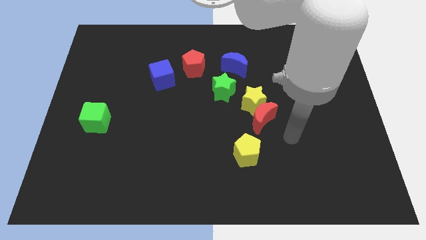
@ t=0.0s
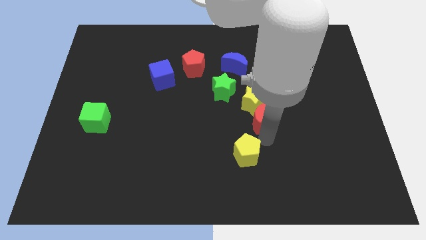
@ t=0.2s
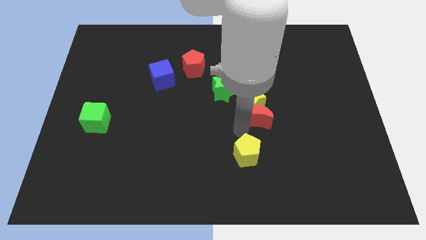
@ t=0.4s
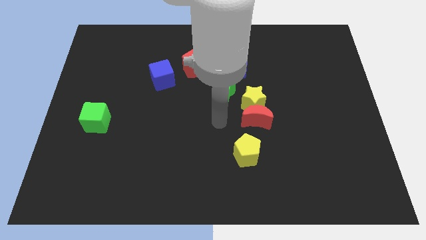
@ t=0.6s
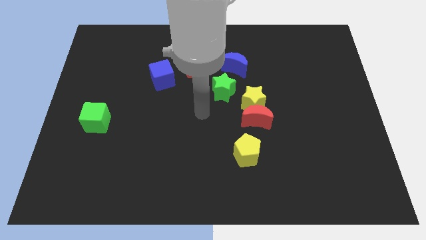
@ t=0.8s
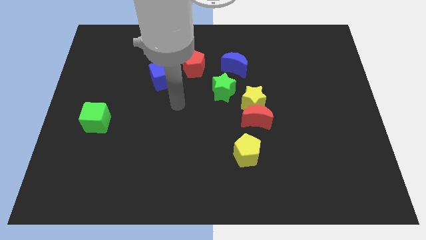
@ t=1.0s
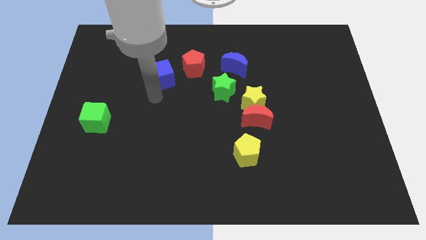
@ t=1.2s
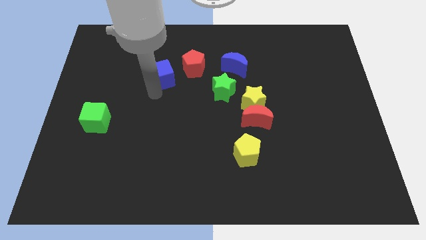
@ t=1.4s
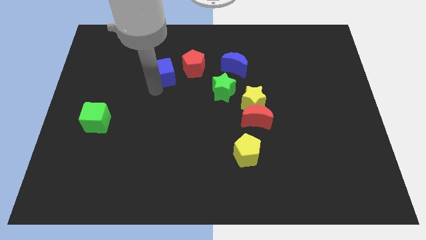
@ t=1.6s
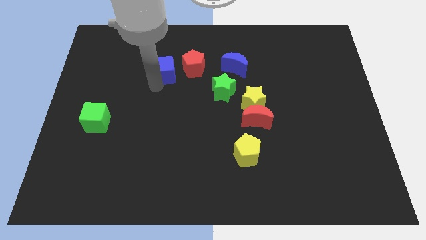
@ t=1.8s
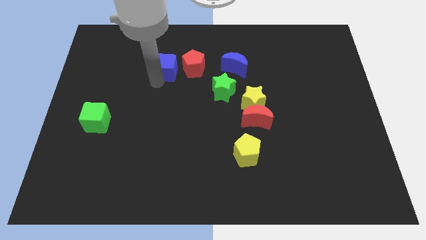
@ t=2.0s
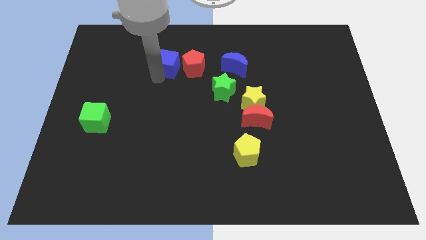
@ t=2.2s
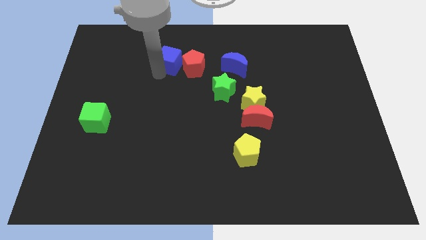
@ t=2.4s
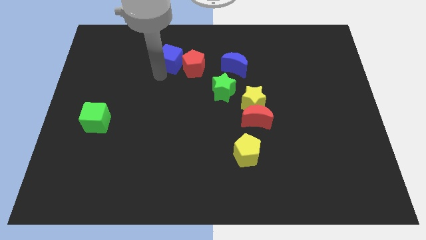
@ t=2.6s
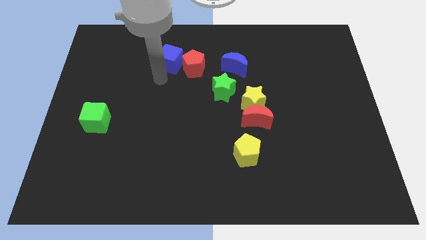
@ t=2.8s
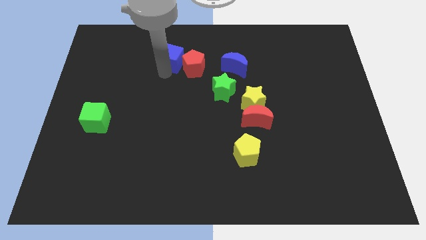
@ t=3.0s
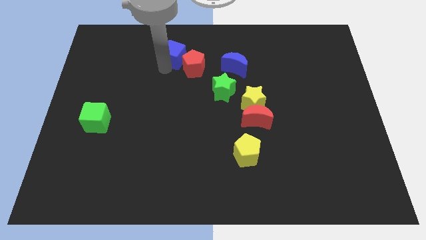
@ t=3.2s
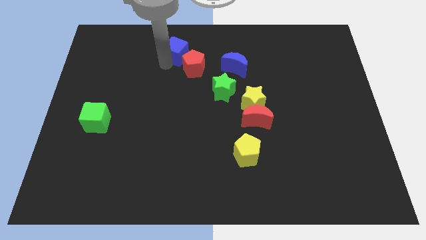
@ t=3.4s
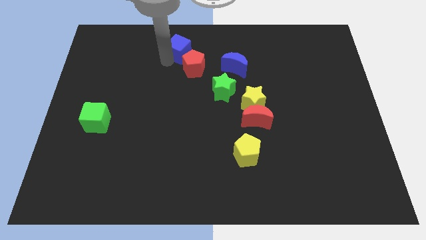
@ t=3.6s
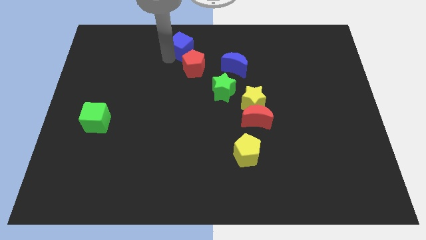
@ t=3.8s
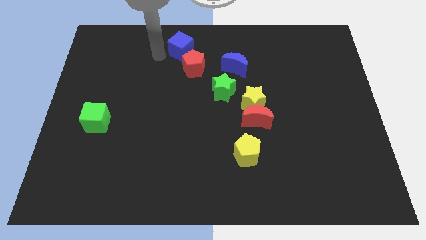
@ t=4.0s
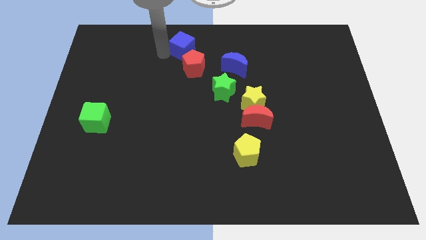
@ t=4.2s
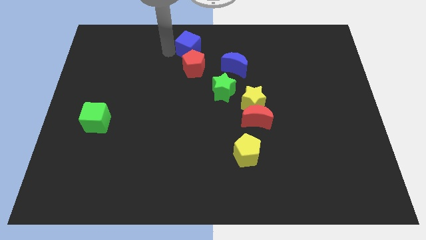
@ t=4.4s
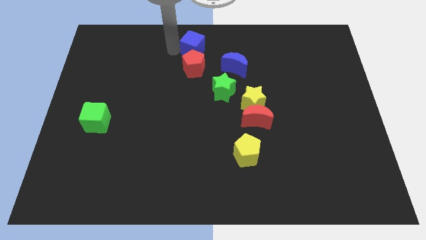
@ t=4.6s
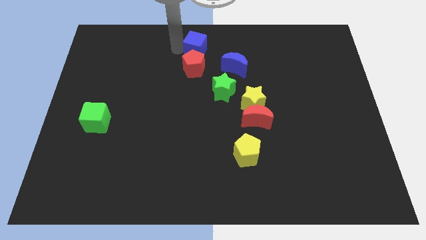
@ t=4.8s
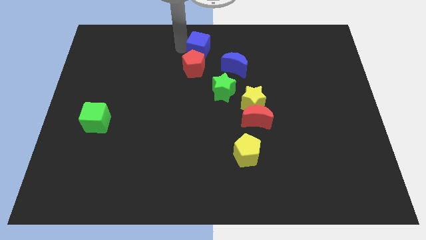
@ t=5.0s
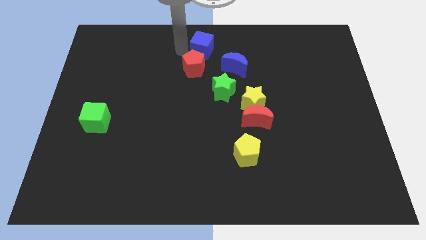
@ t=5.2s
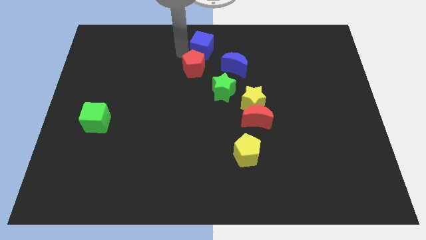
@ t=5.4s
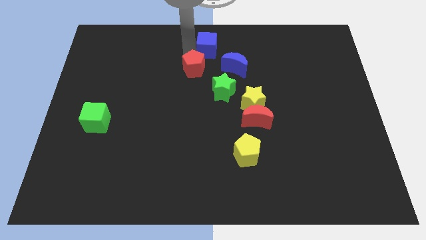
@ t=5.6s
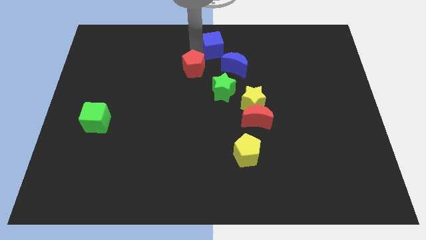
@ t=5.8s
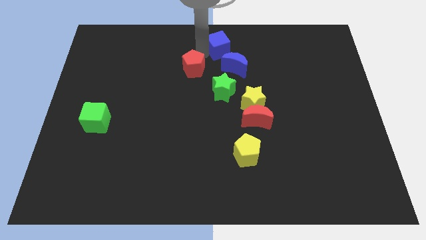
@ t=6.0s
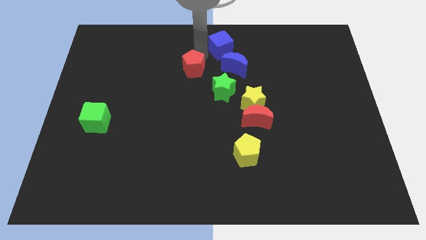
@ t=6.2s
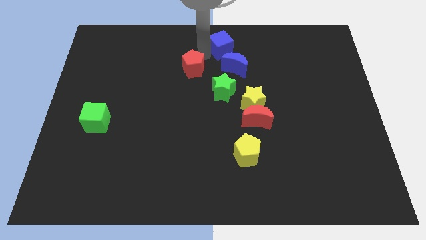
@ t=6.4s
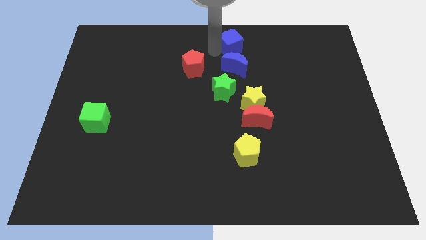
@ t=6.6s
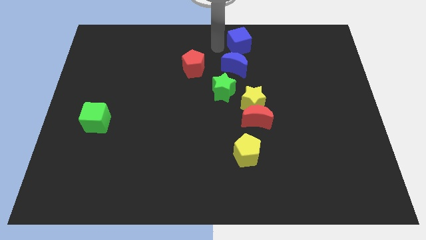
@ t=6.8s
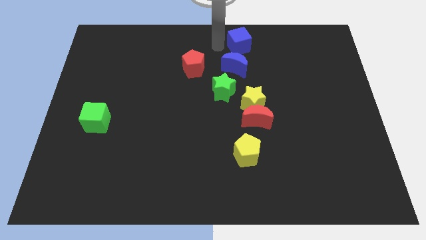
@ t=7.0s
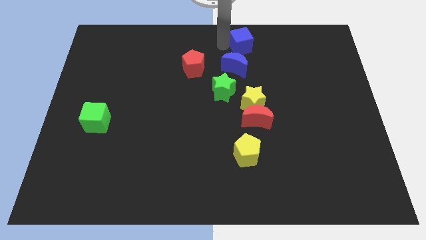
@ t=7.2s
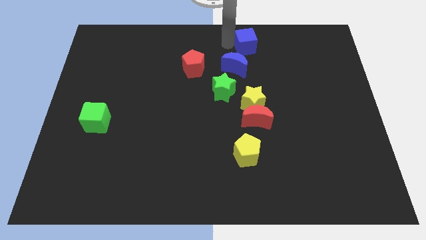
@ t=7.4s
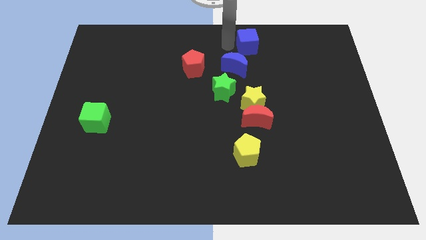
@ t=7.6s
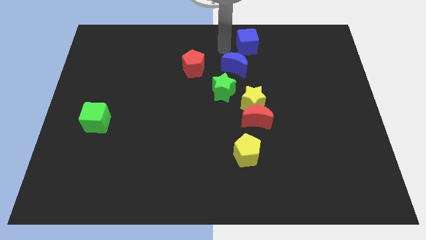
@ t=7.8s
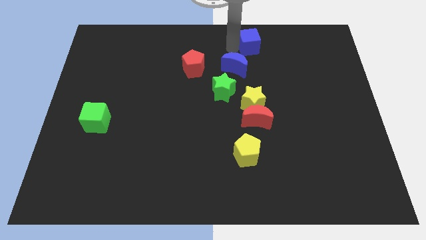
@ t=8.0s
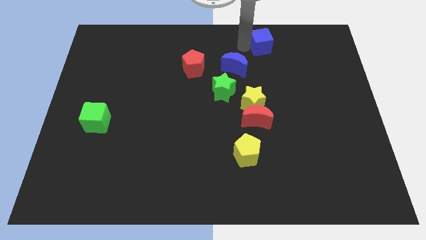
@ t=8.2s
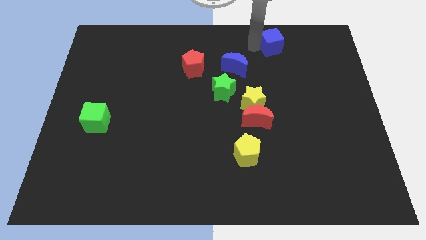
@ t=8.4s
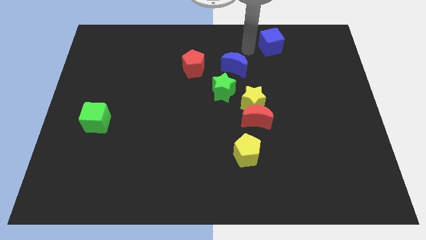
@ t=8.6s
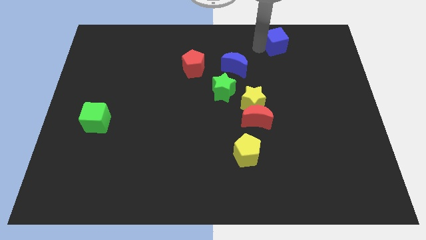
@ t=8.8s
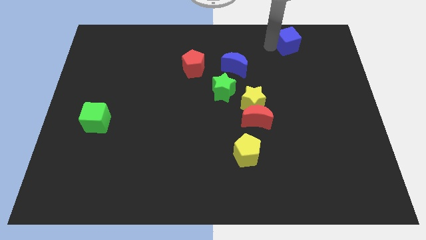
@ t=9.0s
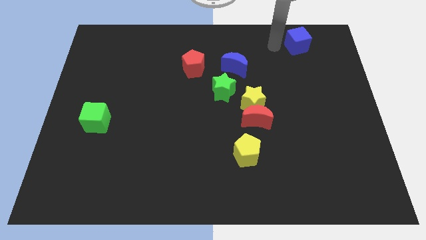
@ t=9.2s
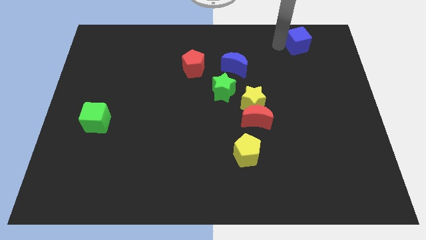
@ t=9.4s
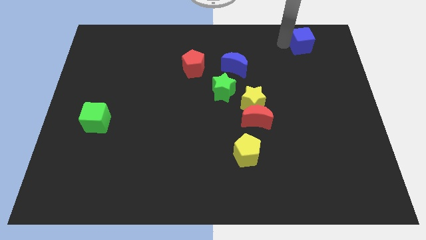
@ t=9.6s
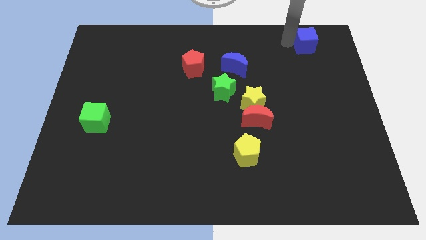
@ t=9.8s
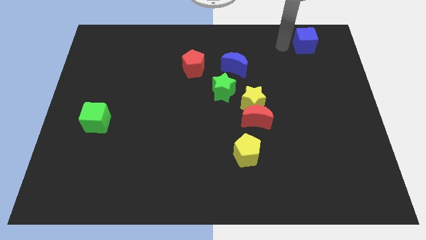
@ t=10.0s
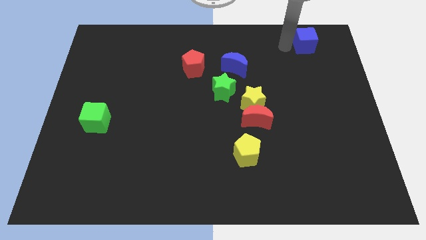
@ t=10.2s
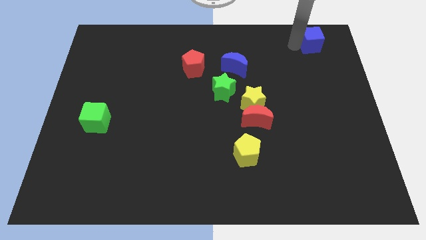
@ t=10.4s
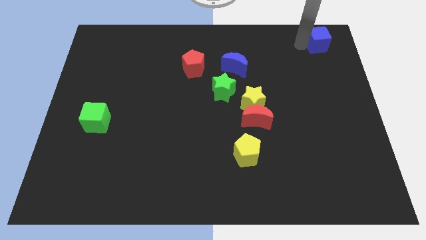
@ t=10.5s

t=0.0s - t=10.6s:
put the blue cube to the top right

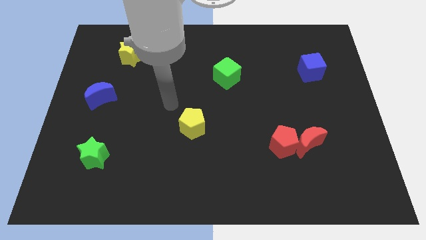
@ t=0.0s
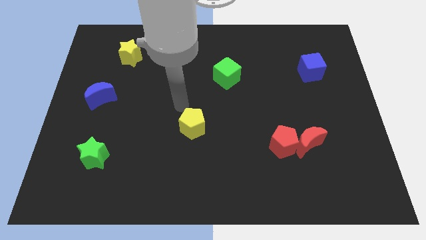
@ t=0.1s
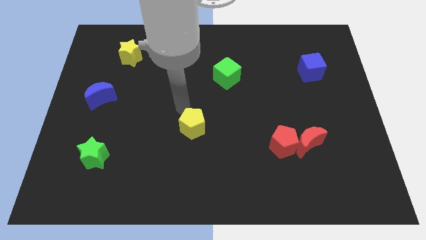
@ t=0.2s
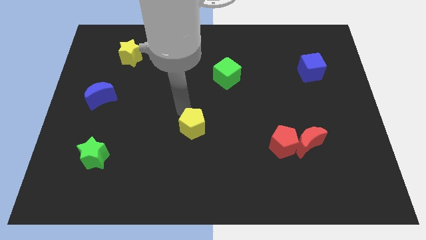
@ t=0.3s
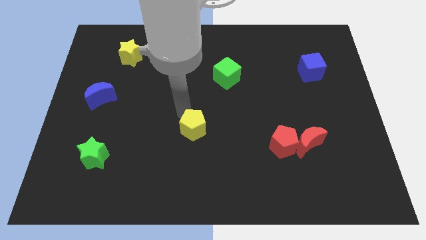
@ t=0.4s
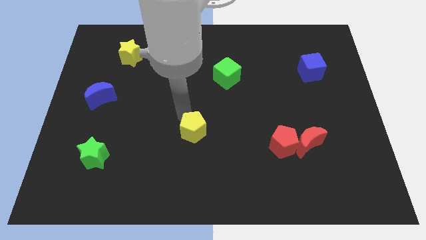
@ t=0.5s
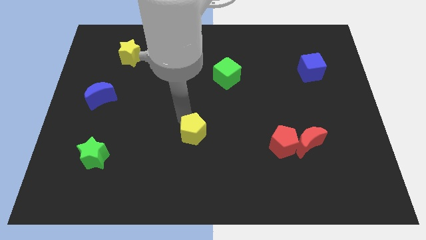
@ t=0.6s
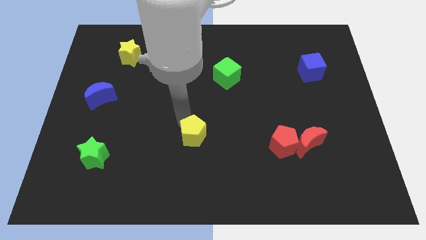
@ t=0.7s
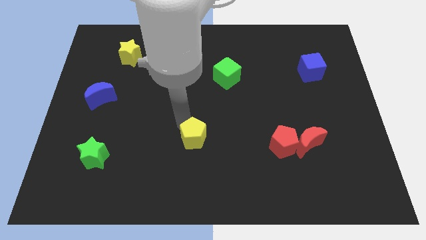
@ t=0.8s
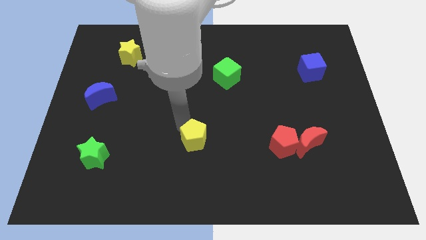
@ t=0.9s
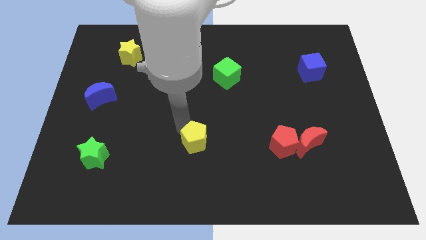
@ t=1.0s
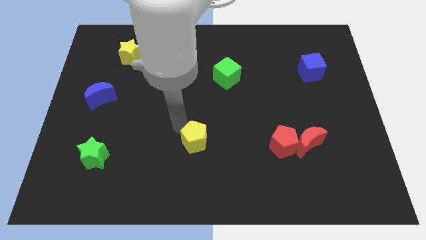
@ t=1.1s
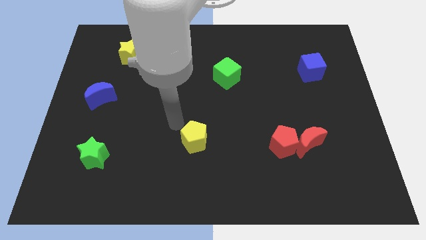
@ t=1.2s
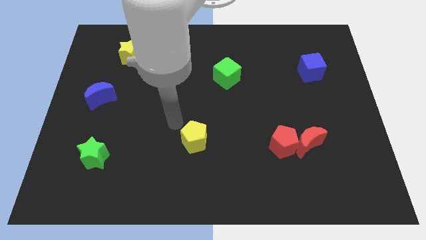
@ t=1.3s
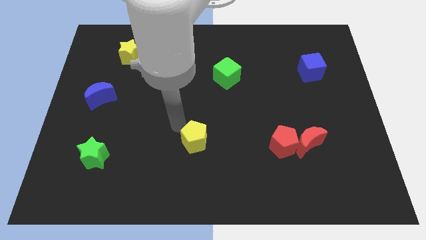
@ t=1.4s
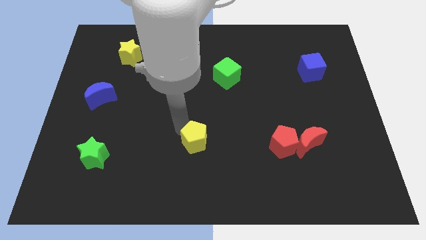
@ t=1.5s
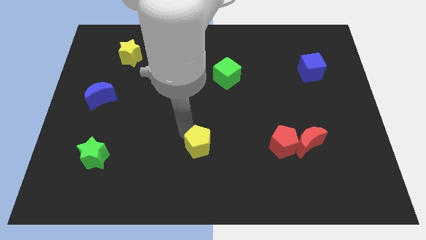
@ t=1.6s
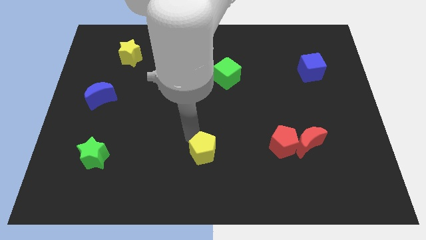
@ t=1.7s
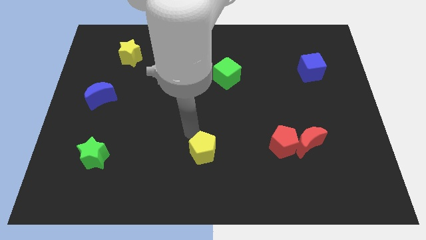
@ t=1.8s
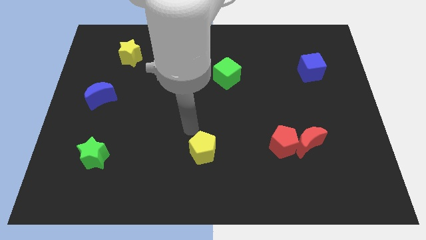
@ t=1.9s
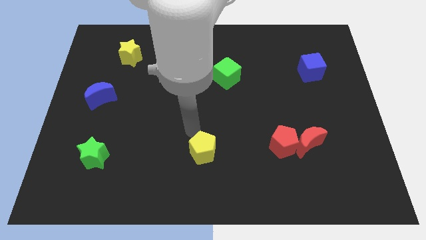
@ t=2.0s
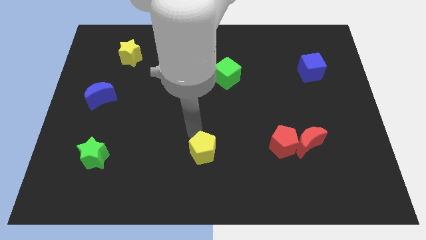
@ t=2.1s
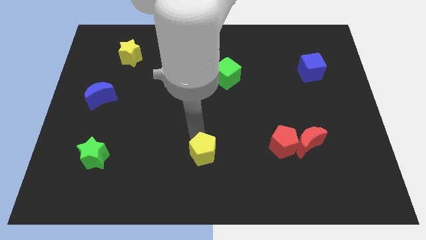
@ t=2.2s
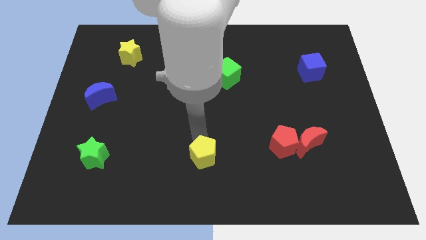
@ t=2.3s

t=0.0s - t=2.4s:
put the yellow pentagon to the bottom side
